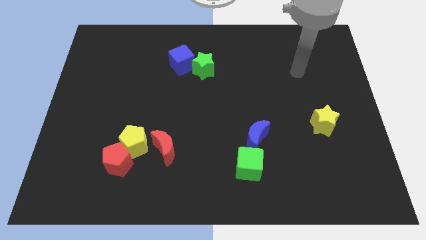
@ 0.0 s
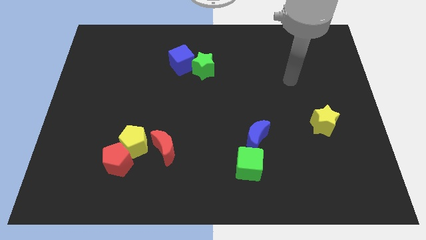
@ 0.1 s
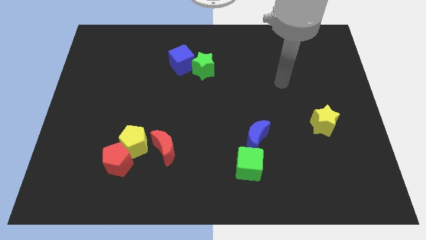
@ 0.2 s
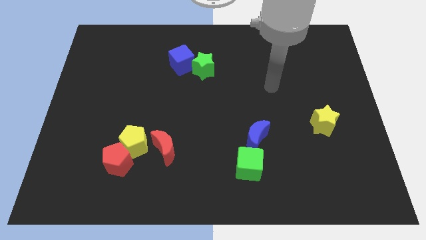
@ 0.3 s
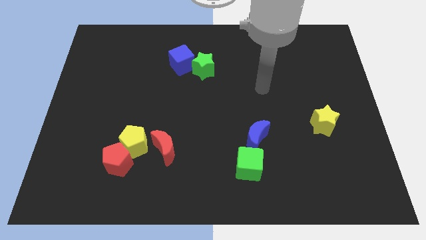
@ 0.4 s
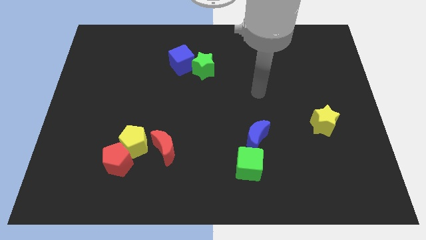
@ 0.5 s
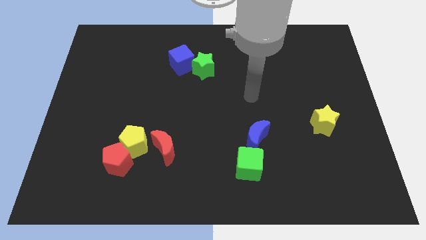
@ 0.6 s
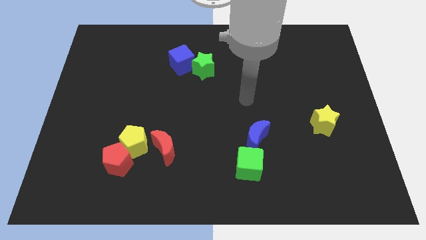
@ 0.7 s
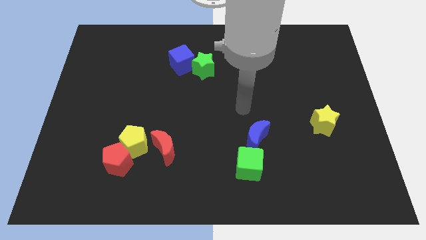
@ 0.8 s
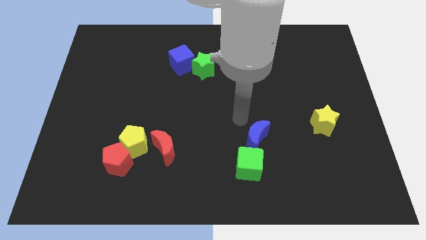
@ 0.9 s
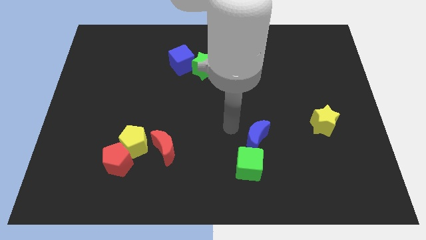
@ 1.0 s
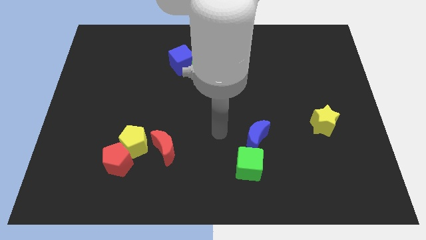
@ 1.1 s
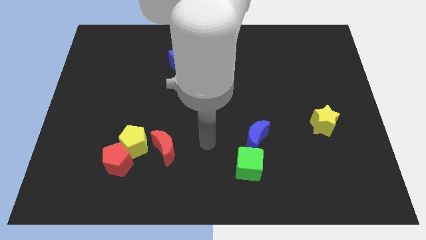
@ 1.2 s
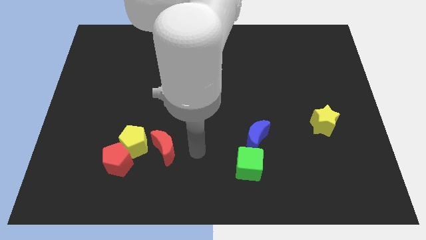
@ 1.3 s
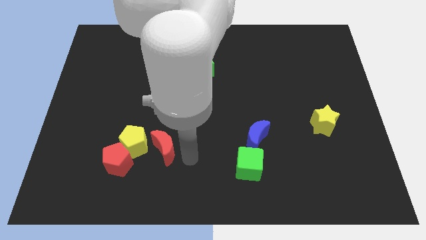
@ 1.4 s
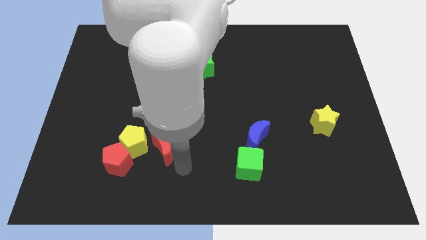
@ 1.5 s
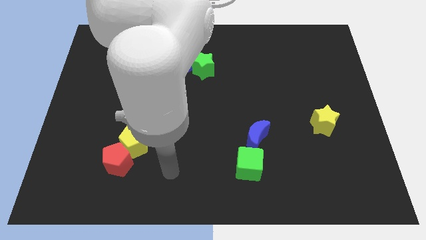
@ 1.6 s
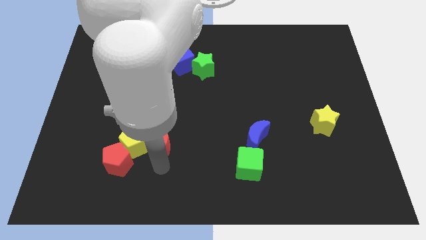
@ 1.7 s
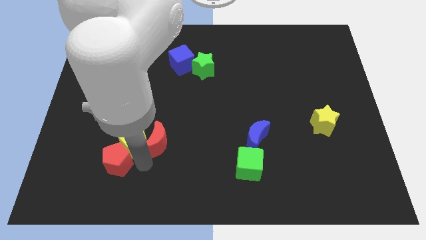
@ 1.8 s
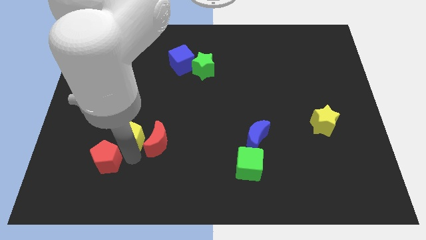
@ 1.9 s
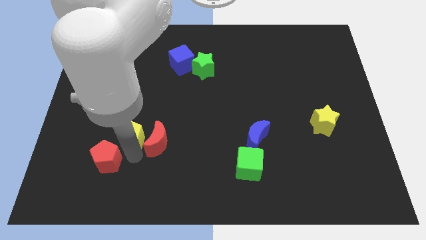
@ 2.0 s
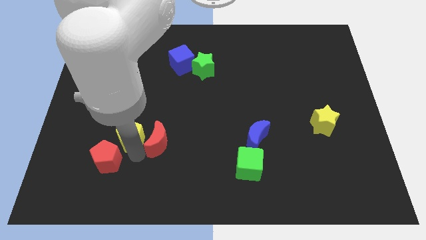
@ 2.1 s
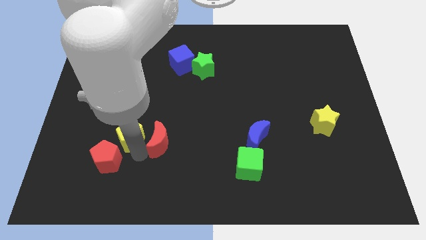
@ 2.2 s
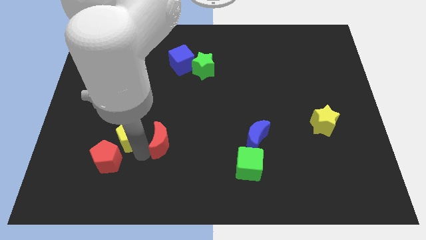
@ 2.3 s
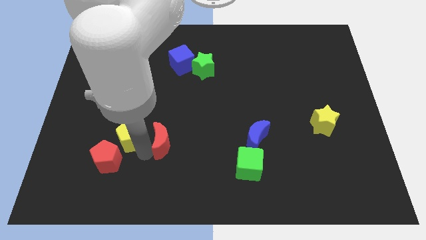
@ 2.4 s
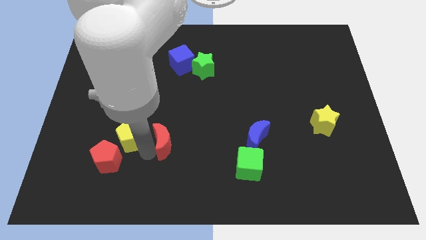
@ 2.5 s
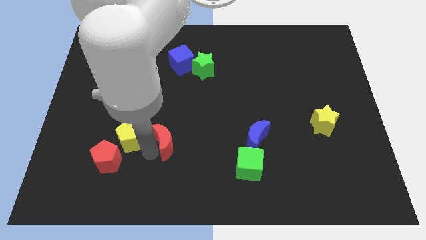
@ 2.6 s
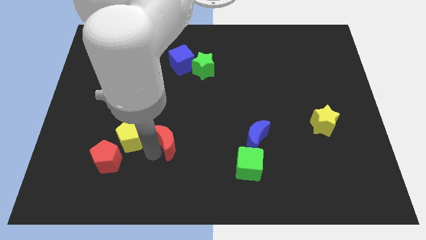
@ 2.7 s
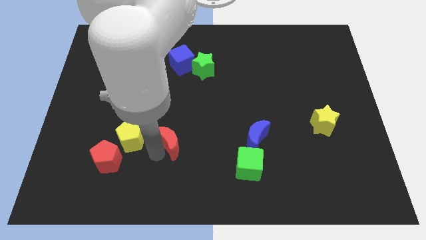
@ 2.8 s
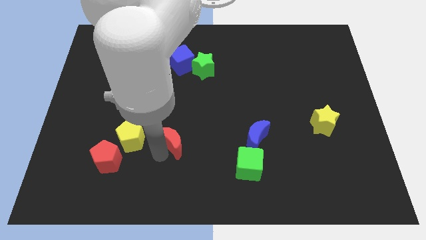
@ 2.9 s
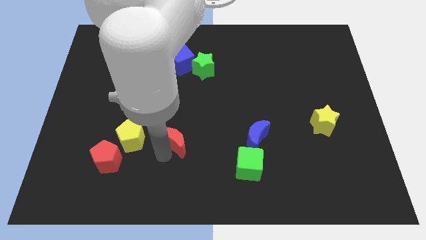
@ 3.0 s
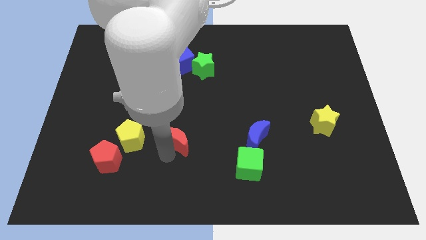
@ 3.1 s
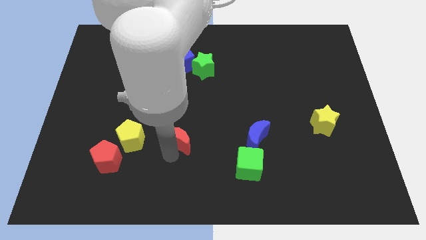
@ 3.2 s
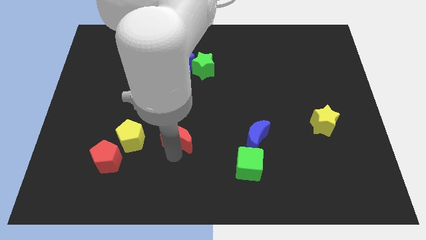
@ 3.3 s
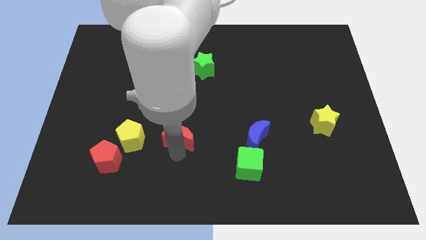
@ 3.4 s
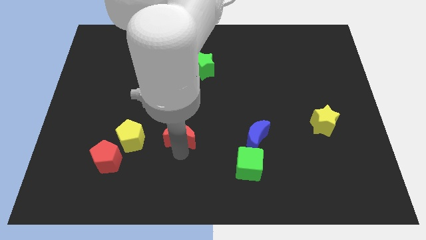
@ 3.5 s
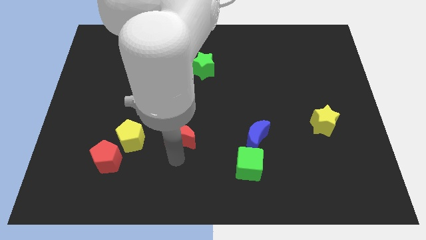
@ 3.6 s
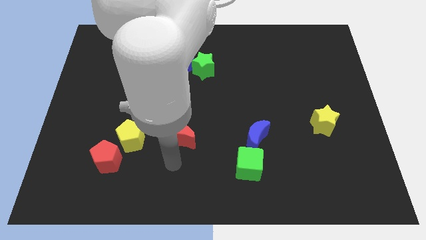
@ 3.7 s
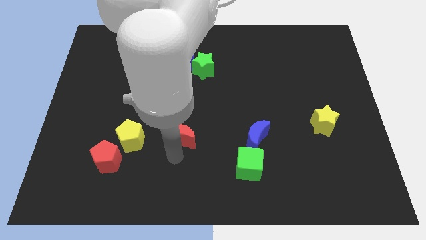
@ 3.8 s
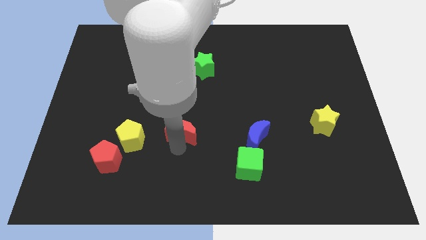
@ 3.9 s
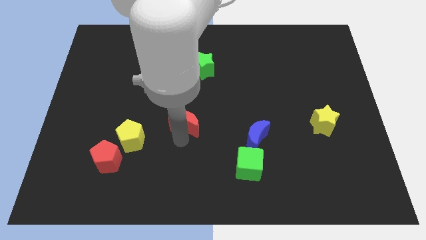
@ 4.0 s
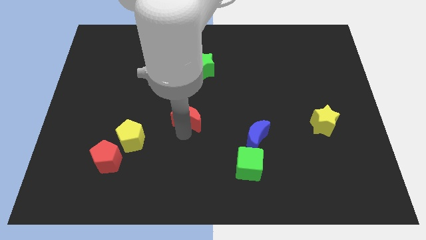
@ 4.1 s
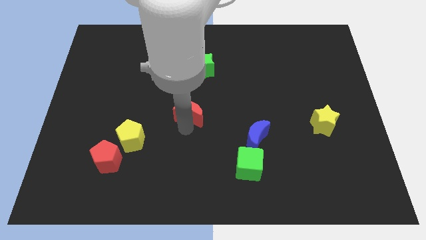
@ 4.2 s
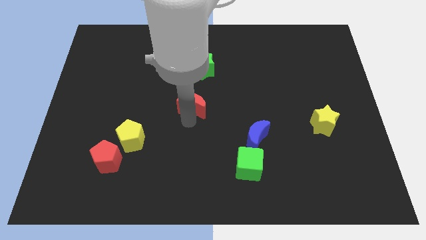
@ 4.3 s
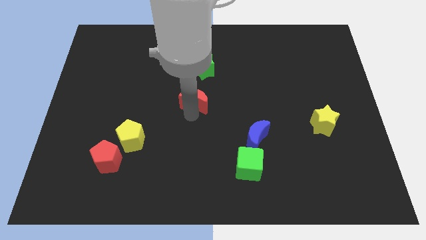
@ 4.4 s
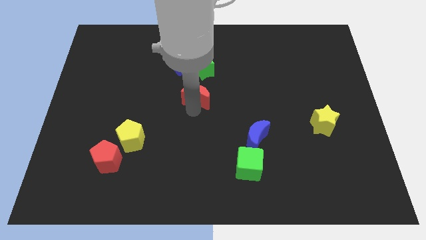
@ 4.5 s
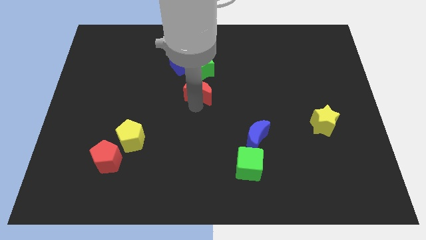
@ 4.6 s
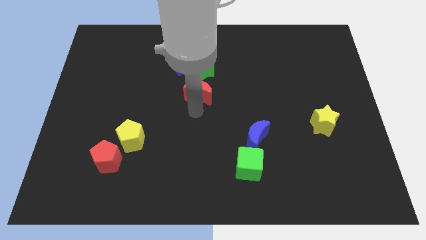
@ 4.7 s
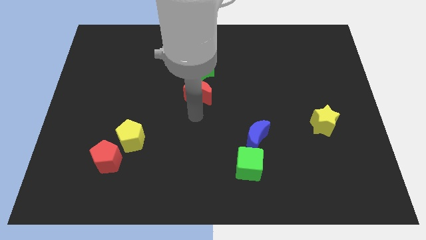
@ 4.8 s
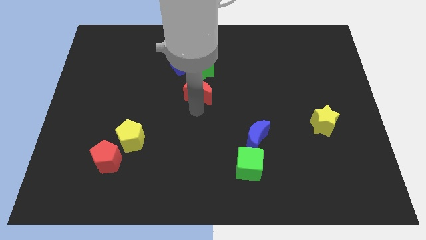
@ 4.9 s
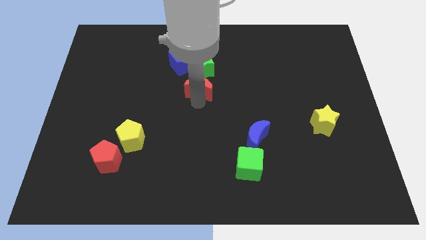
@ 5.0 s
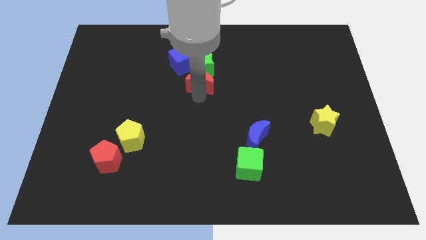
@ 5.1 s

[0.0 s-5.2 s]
push the red moon to the green star

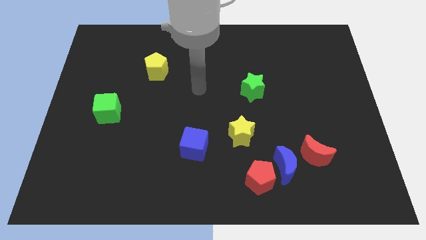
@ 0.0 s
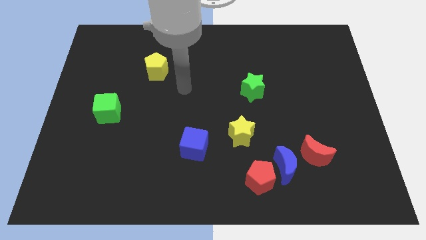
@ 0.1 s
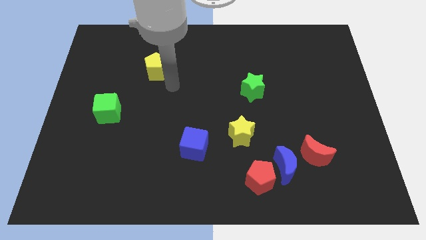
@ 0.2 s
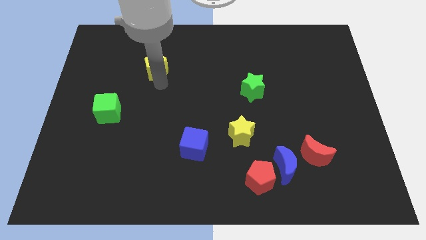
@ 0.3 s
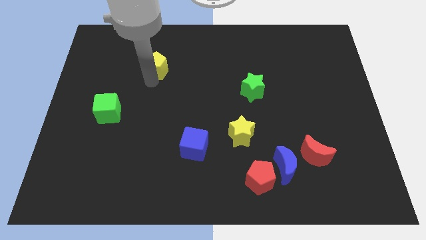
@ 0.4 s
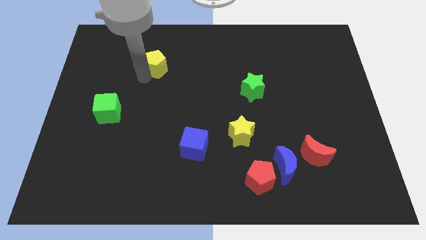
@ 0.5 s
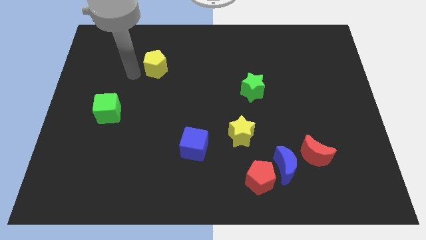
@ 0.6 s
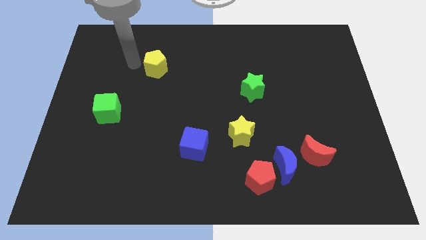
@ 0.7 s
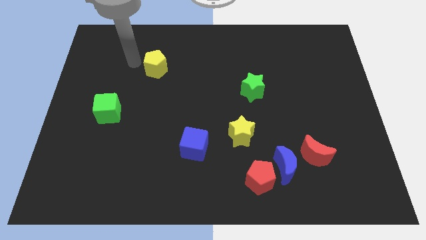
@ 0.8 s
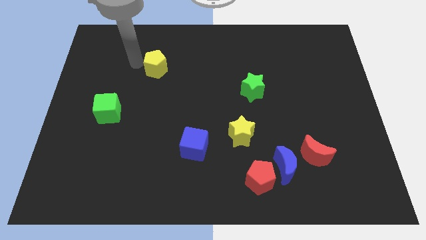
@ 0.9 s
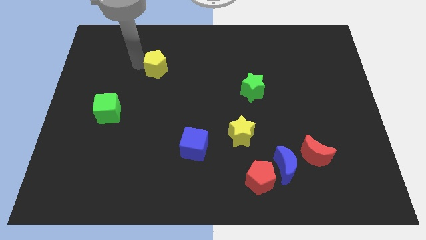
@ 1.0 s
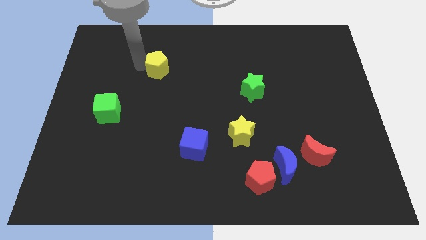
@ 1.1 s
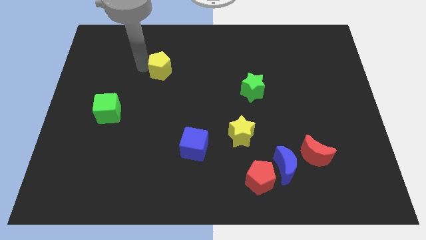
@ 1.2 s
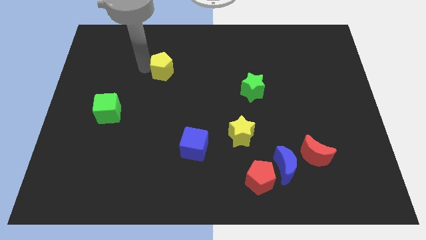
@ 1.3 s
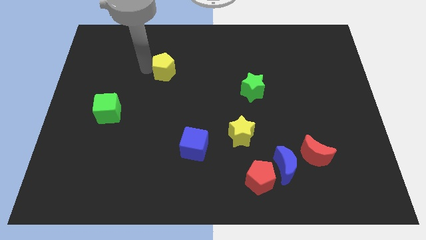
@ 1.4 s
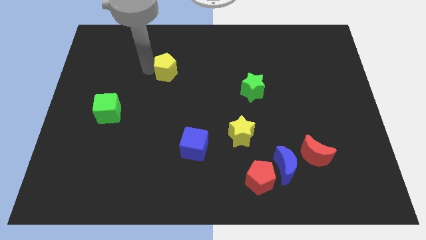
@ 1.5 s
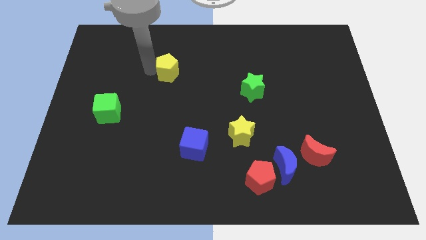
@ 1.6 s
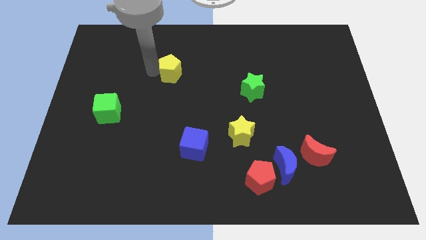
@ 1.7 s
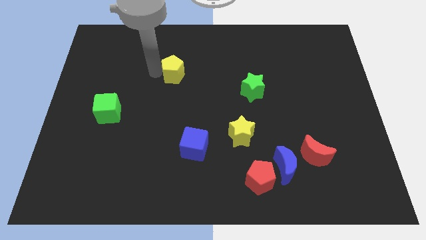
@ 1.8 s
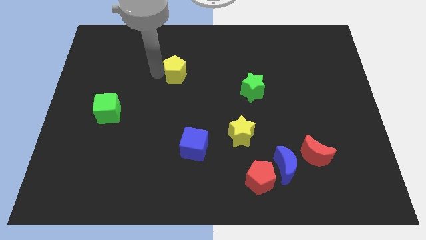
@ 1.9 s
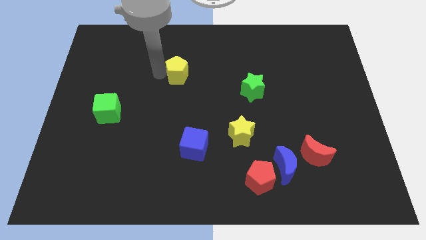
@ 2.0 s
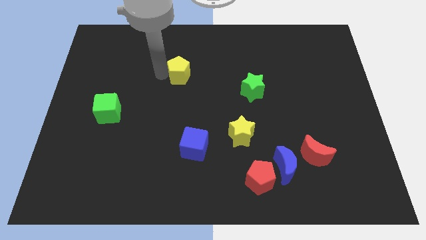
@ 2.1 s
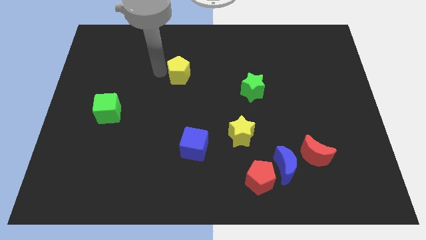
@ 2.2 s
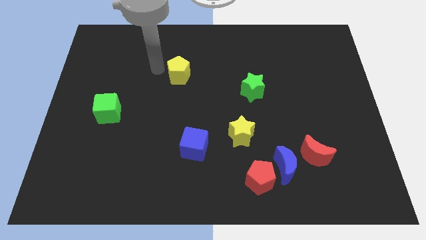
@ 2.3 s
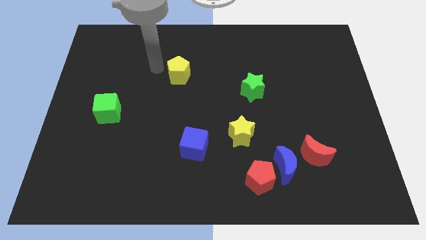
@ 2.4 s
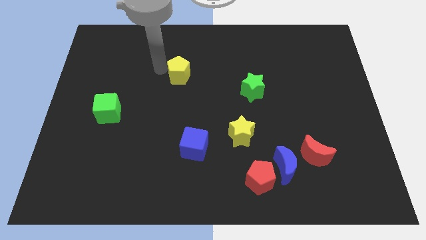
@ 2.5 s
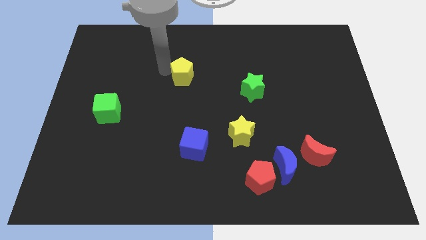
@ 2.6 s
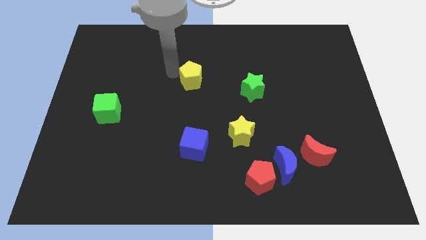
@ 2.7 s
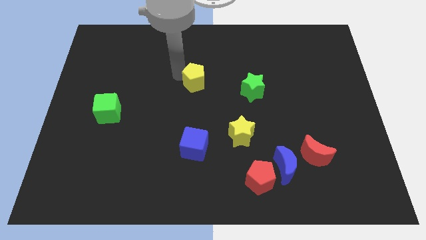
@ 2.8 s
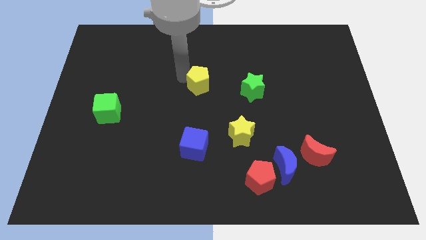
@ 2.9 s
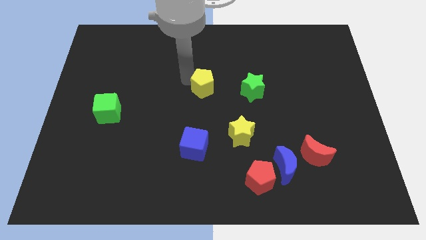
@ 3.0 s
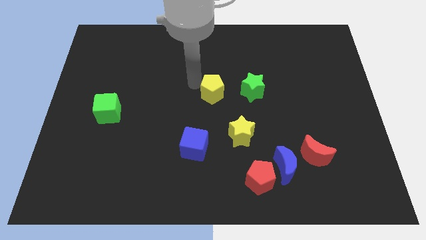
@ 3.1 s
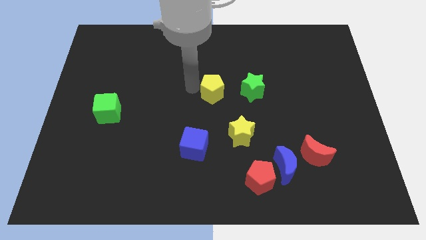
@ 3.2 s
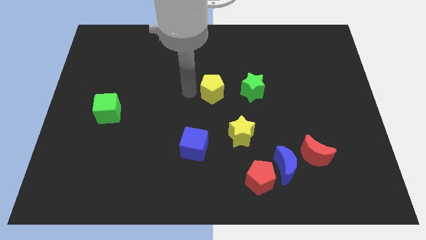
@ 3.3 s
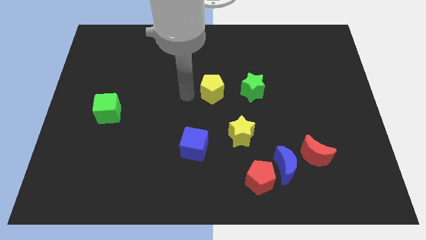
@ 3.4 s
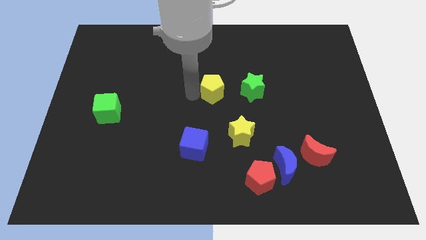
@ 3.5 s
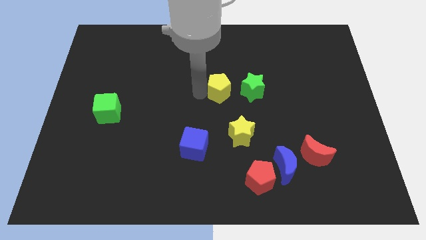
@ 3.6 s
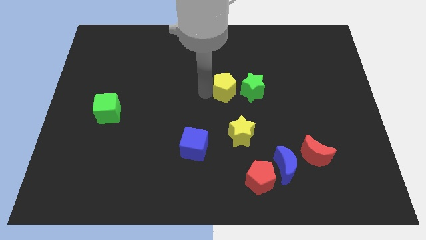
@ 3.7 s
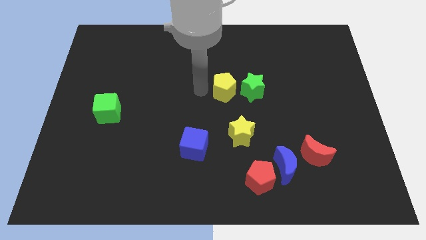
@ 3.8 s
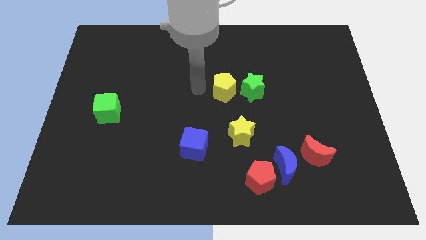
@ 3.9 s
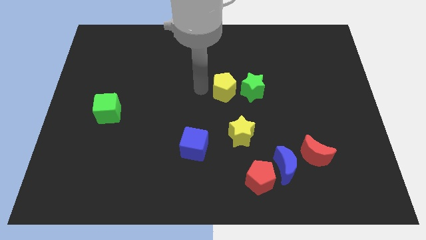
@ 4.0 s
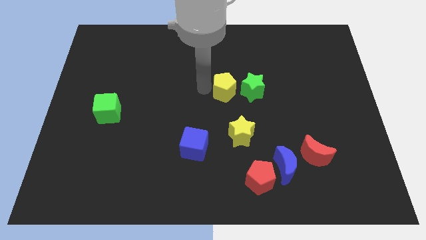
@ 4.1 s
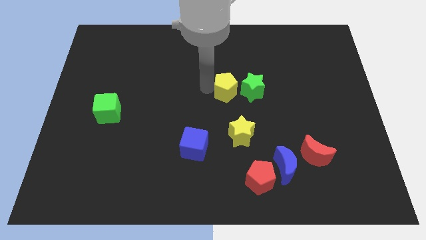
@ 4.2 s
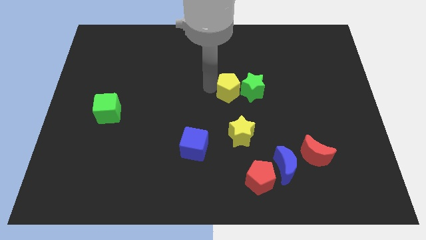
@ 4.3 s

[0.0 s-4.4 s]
put the yellow pentagon next to the green star
